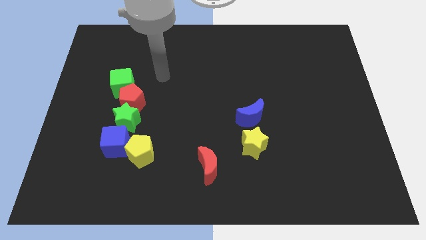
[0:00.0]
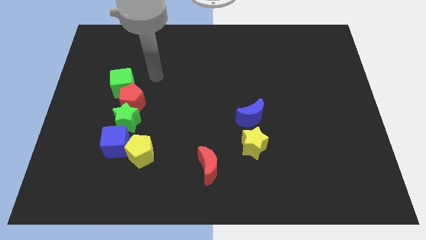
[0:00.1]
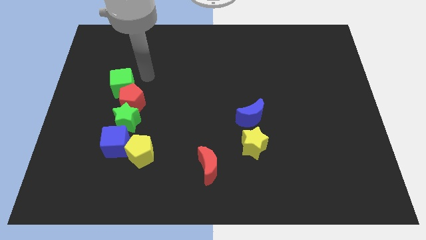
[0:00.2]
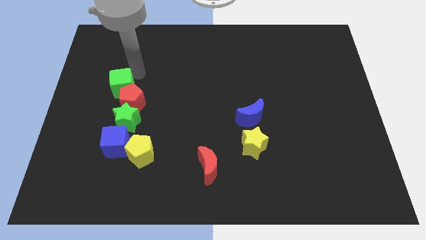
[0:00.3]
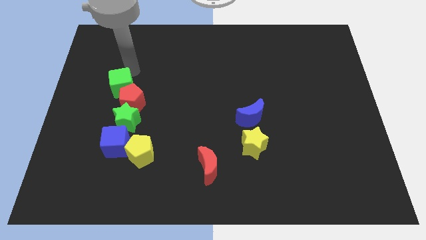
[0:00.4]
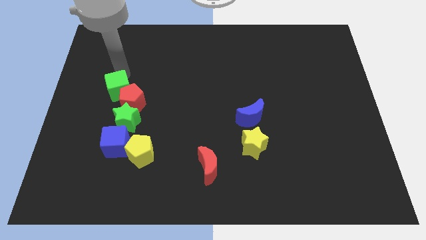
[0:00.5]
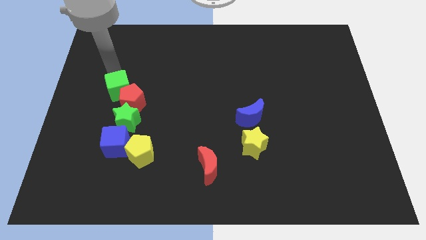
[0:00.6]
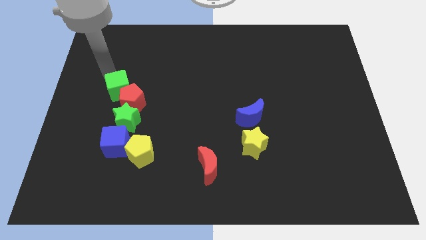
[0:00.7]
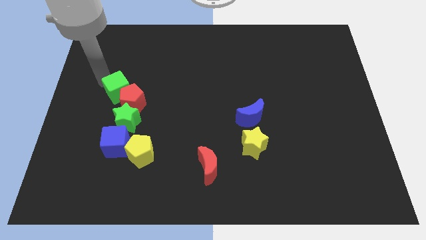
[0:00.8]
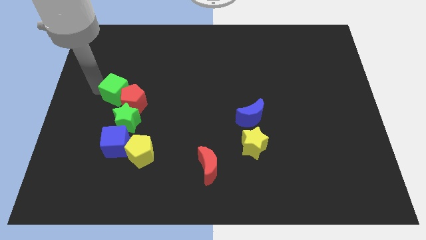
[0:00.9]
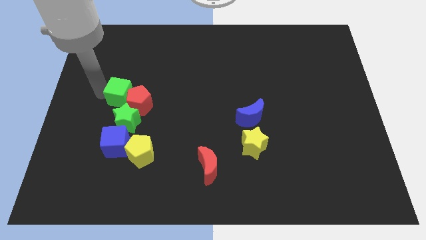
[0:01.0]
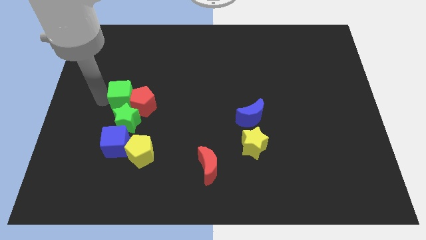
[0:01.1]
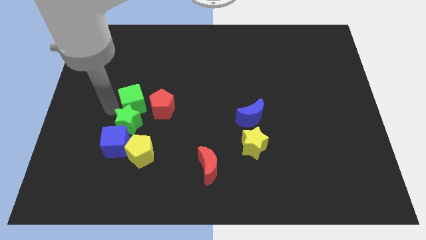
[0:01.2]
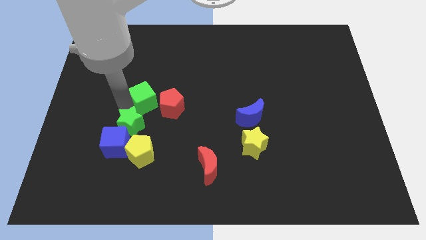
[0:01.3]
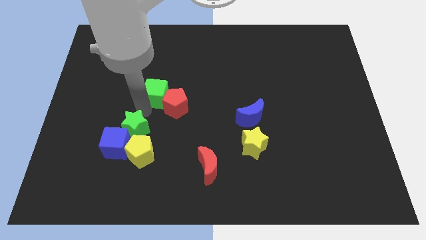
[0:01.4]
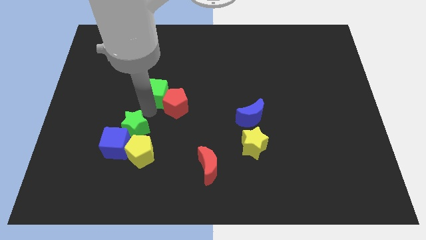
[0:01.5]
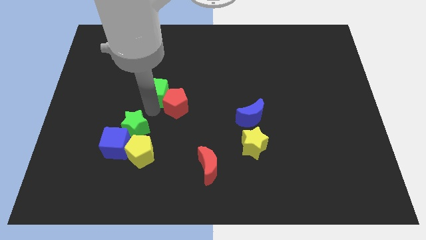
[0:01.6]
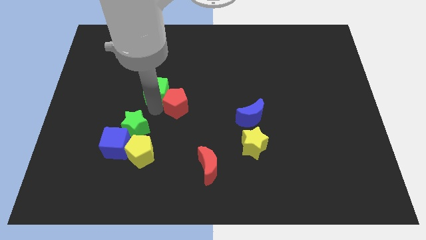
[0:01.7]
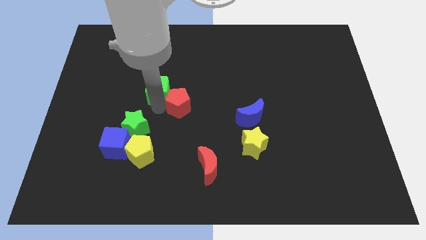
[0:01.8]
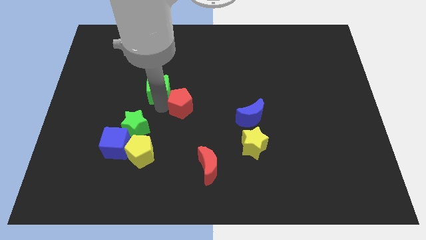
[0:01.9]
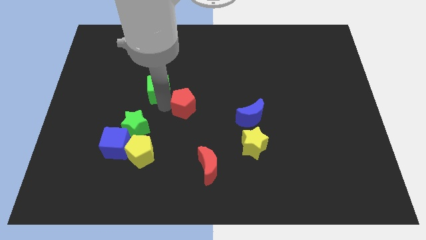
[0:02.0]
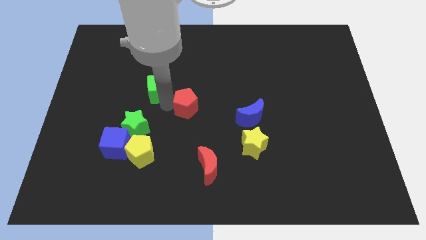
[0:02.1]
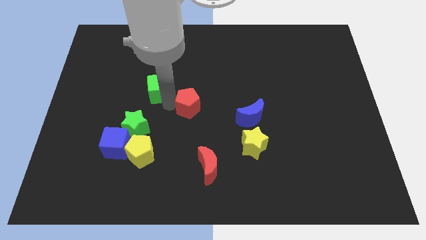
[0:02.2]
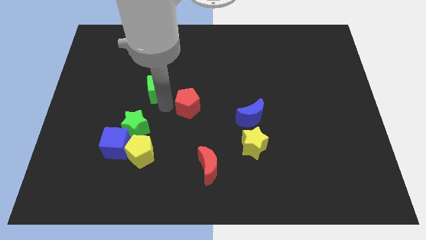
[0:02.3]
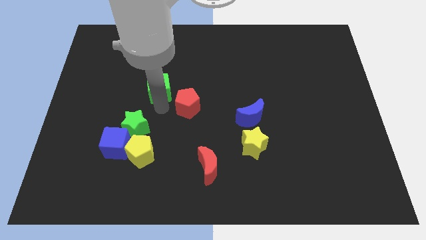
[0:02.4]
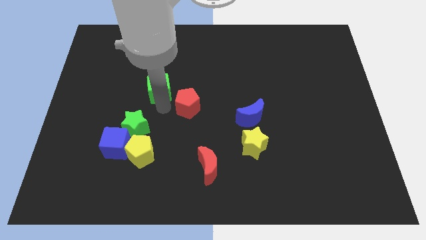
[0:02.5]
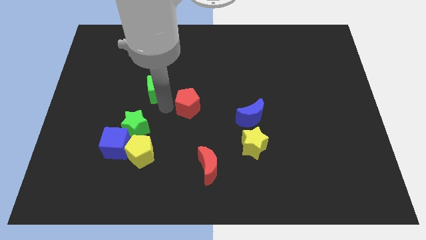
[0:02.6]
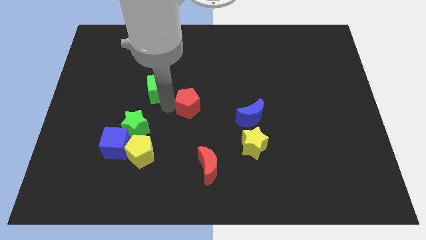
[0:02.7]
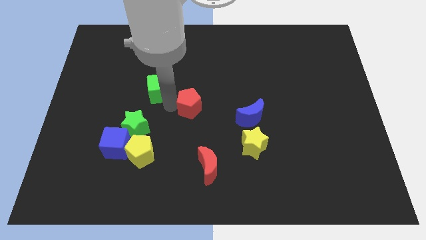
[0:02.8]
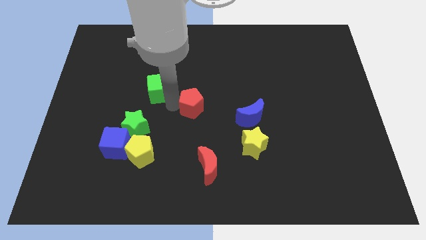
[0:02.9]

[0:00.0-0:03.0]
pull the red pentagon apart from the green star and green cube

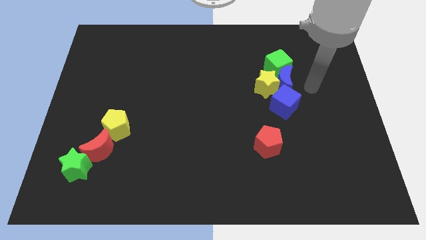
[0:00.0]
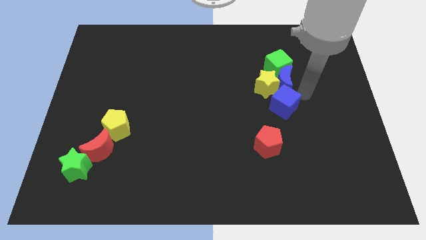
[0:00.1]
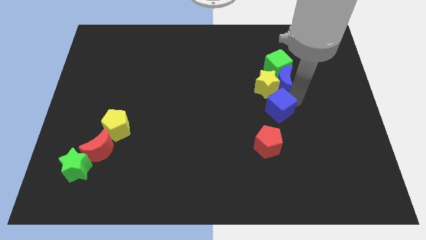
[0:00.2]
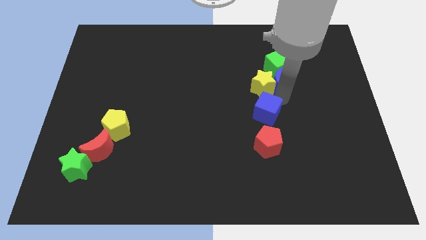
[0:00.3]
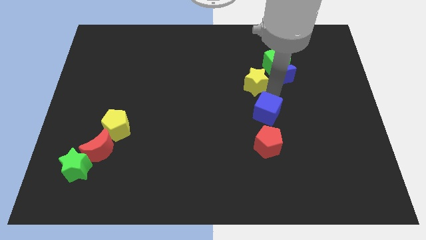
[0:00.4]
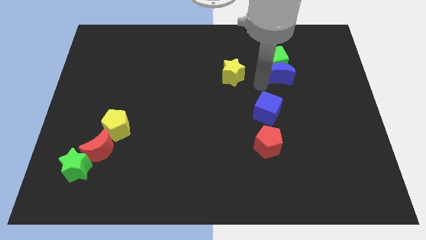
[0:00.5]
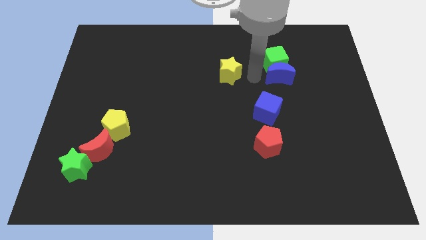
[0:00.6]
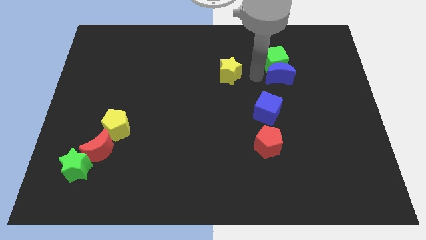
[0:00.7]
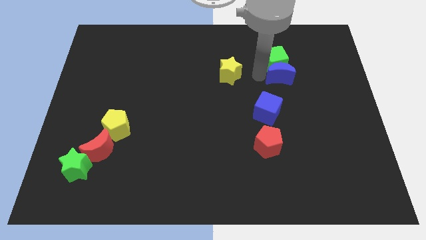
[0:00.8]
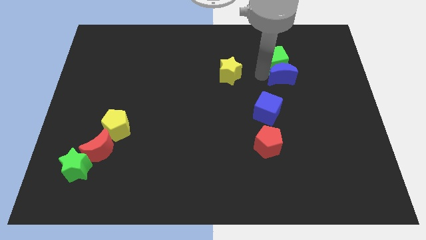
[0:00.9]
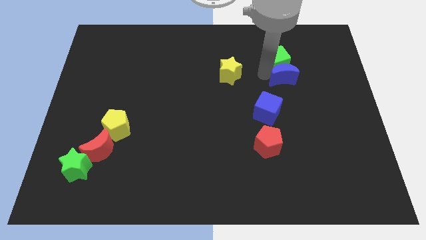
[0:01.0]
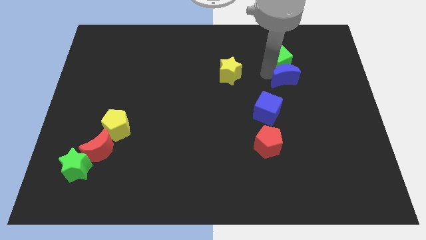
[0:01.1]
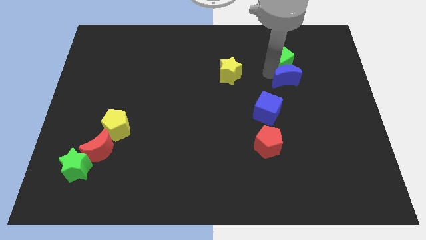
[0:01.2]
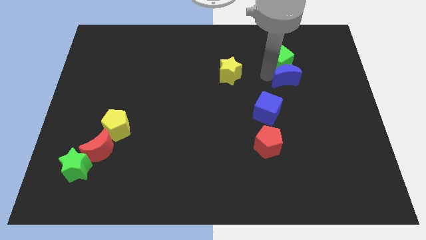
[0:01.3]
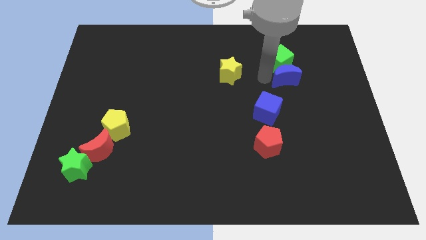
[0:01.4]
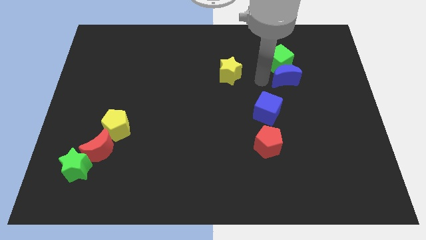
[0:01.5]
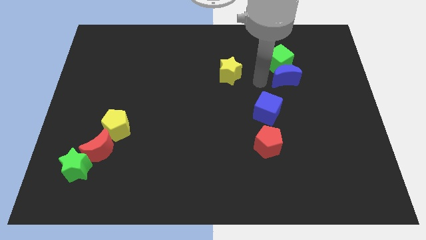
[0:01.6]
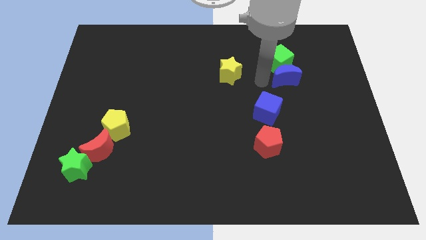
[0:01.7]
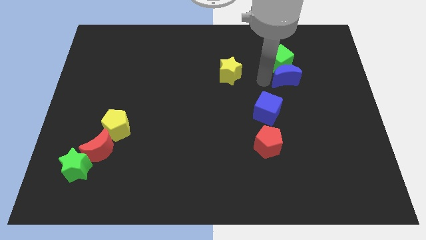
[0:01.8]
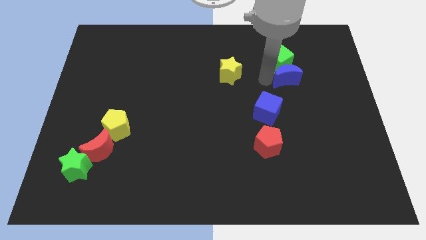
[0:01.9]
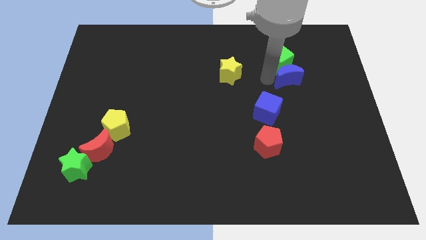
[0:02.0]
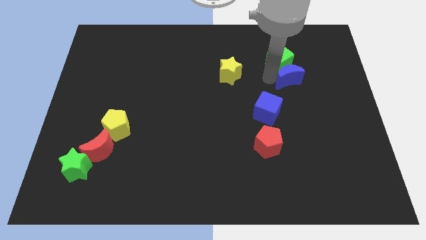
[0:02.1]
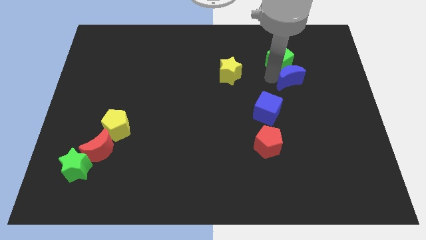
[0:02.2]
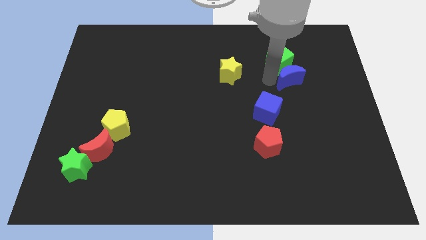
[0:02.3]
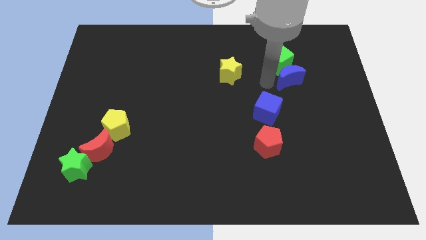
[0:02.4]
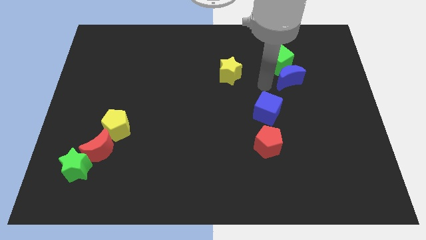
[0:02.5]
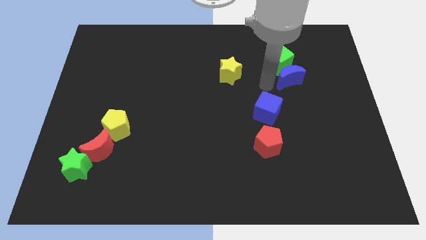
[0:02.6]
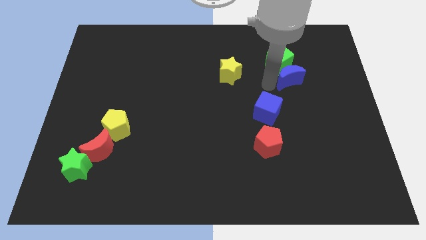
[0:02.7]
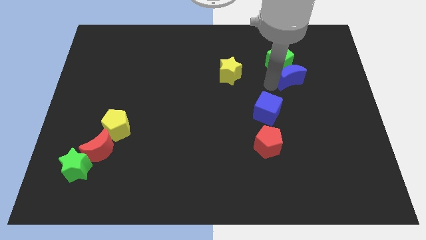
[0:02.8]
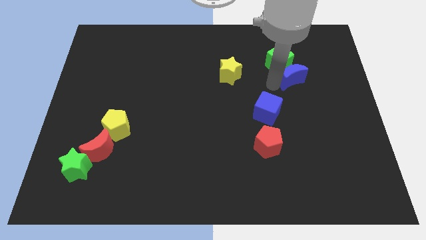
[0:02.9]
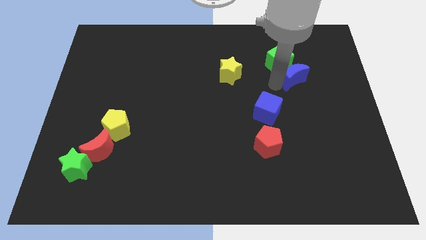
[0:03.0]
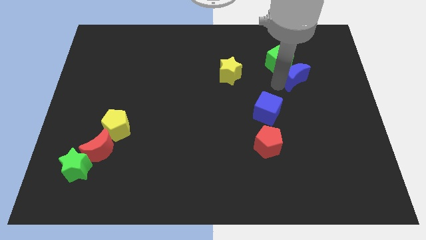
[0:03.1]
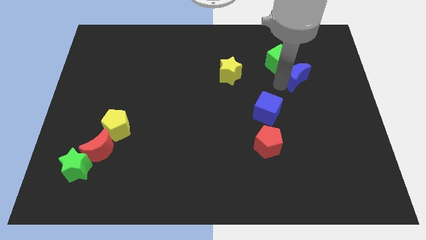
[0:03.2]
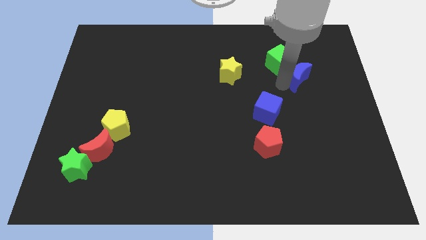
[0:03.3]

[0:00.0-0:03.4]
pull the blue moon apart from the yellow star, green cube, and blue cube

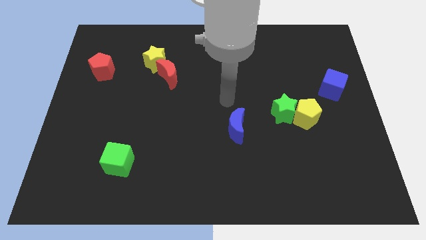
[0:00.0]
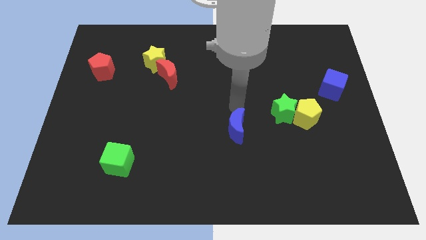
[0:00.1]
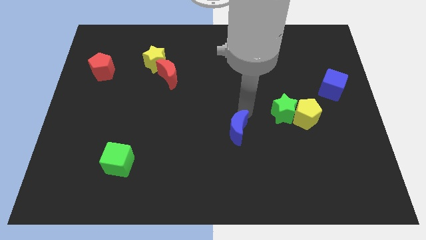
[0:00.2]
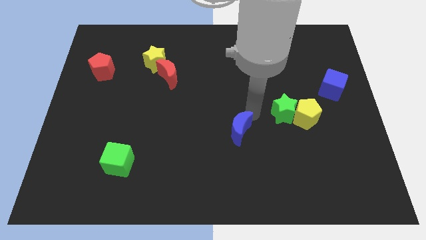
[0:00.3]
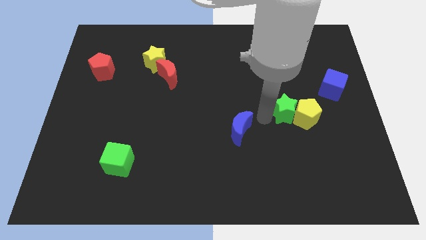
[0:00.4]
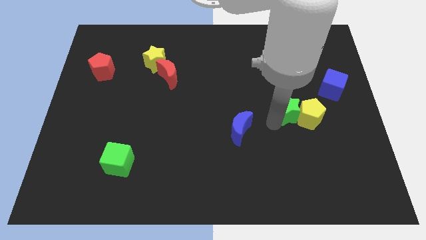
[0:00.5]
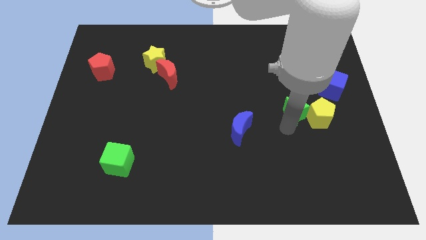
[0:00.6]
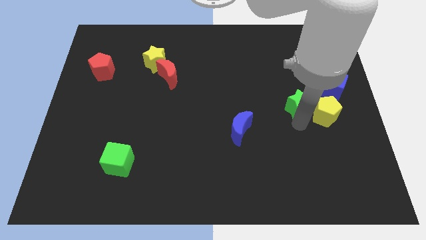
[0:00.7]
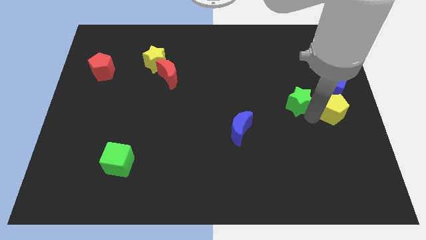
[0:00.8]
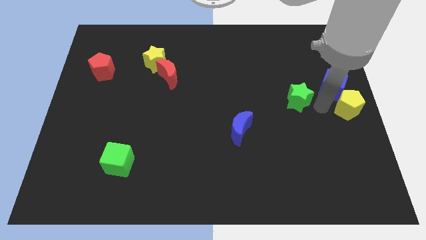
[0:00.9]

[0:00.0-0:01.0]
move the green star away from the yellow pentagon

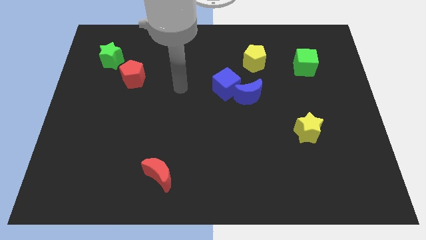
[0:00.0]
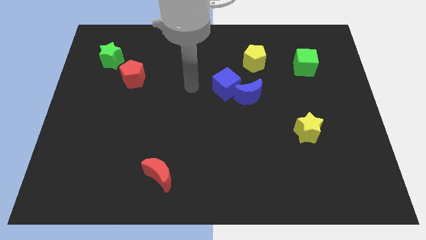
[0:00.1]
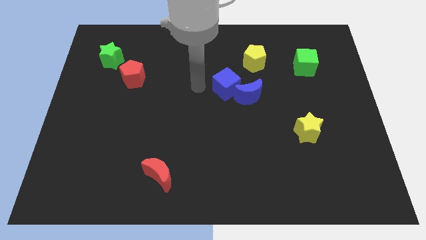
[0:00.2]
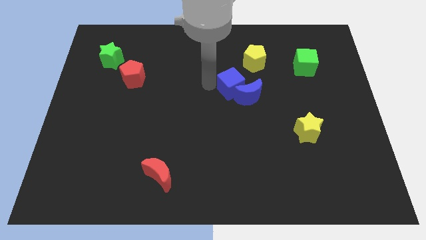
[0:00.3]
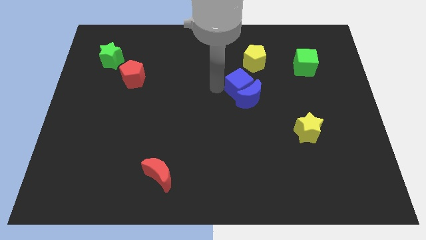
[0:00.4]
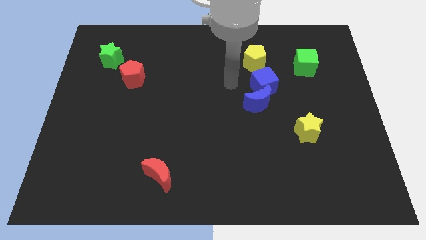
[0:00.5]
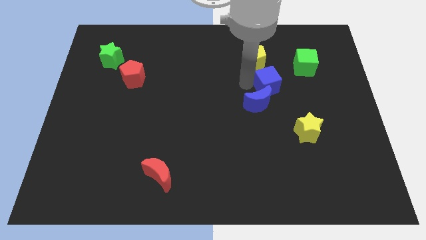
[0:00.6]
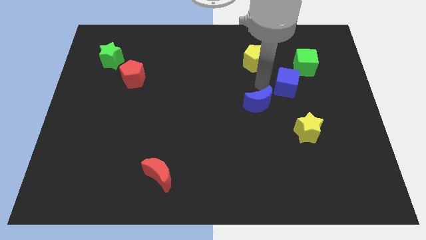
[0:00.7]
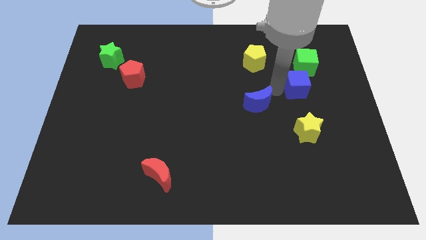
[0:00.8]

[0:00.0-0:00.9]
move the blue moon away from the blue cube

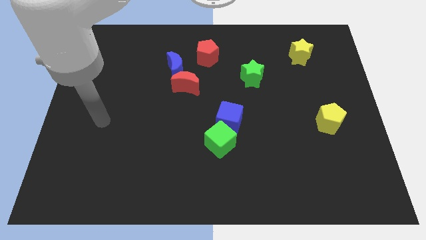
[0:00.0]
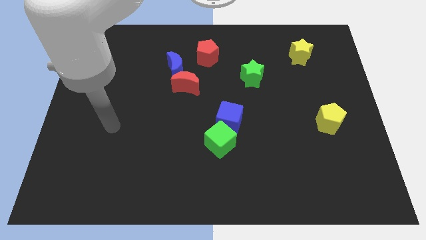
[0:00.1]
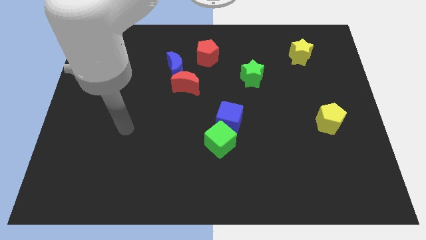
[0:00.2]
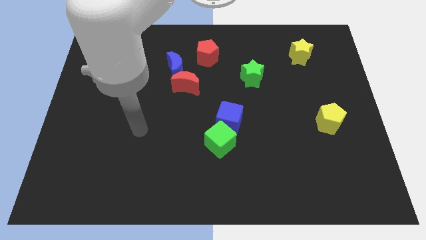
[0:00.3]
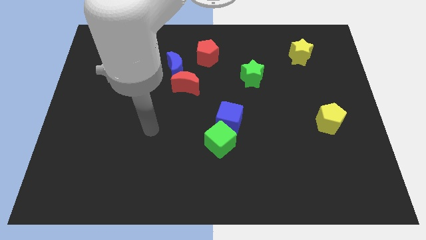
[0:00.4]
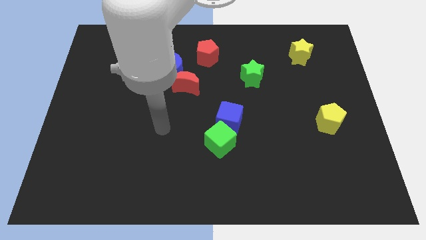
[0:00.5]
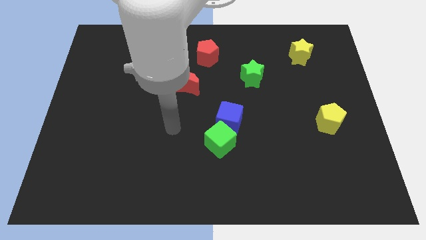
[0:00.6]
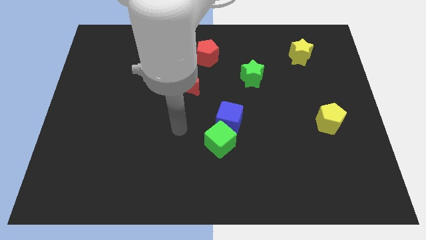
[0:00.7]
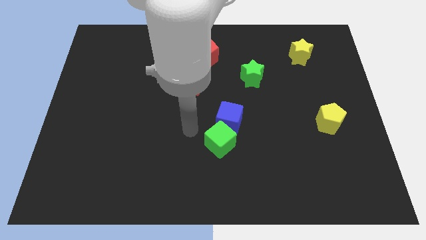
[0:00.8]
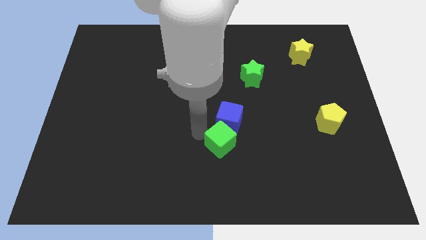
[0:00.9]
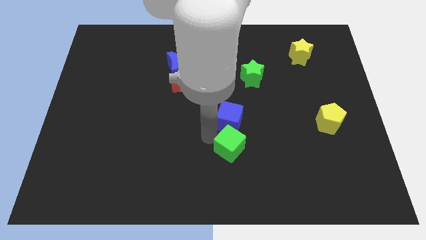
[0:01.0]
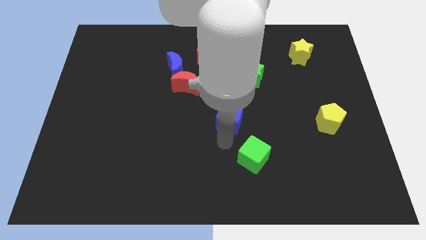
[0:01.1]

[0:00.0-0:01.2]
separate the blue cube from the green cube
